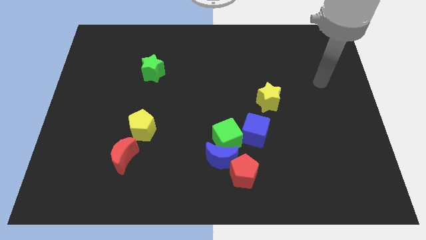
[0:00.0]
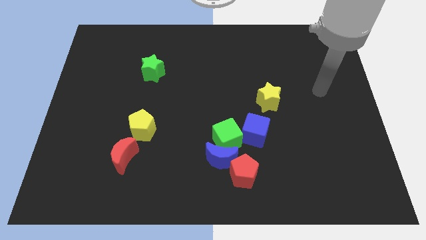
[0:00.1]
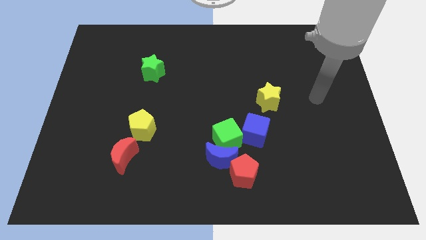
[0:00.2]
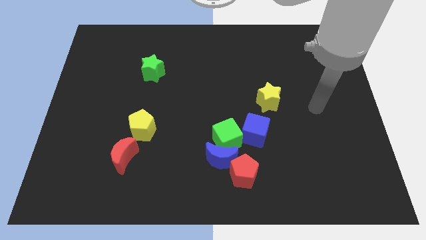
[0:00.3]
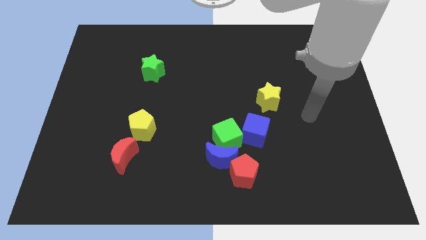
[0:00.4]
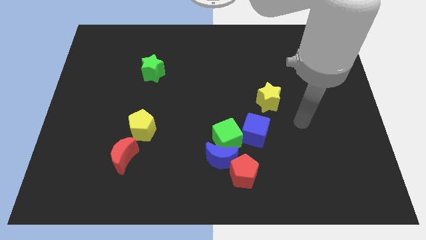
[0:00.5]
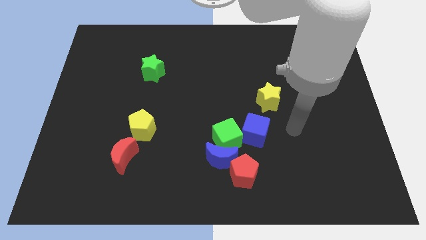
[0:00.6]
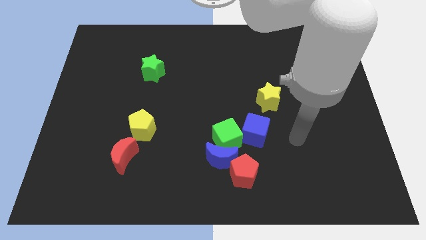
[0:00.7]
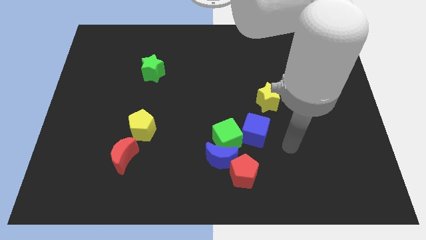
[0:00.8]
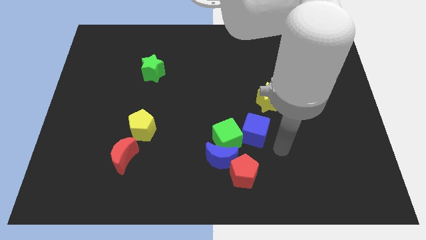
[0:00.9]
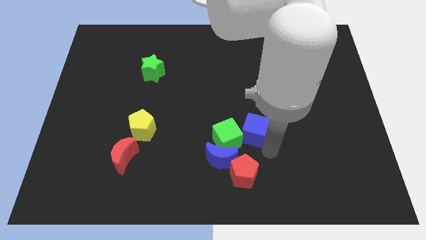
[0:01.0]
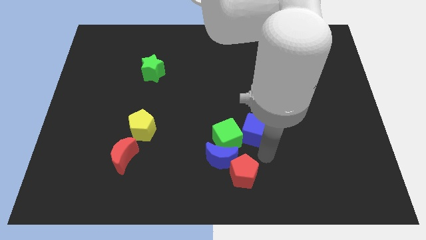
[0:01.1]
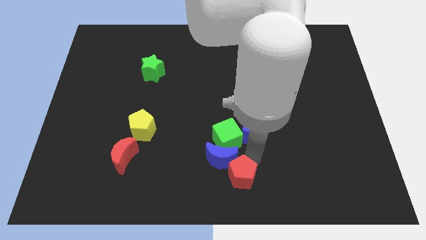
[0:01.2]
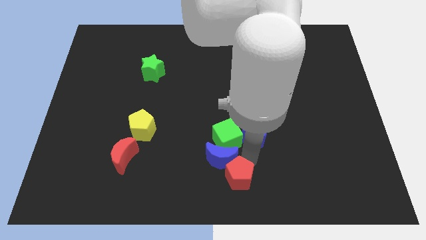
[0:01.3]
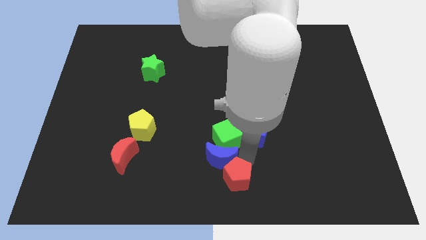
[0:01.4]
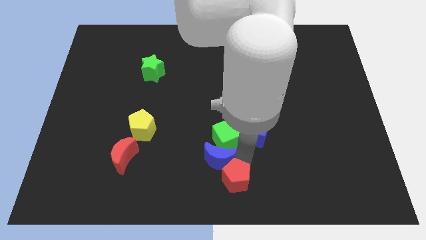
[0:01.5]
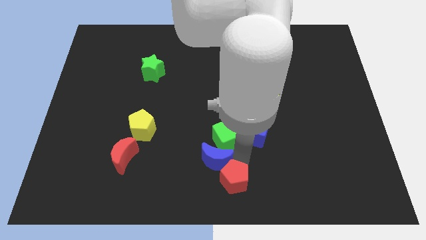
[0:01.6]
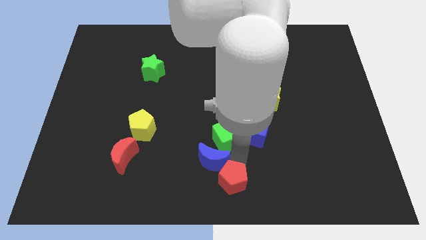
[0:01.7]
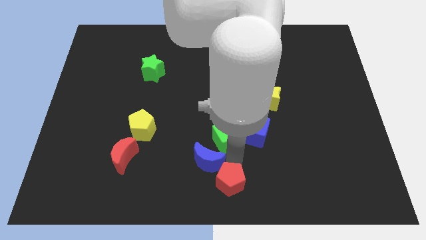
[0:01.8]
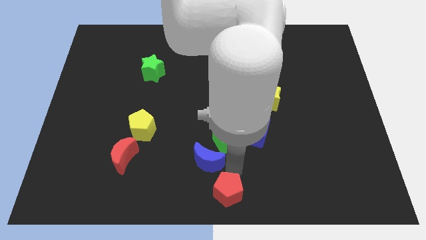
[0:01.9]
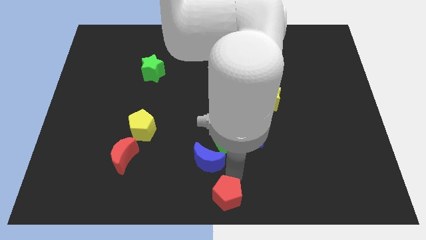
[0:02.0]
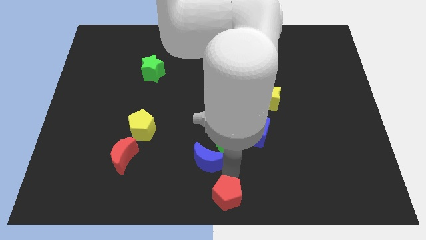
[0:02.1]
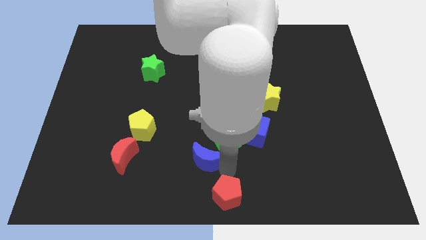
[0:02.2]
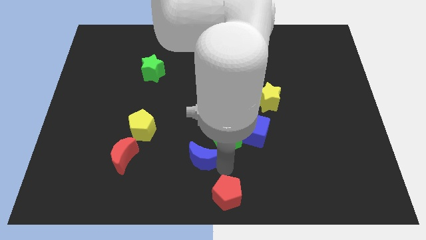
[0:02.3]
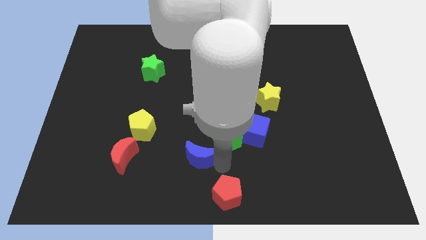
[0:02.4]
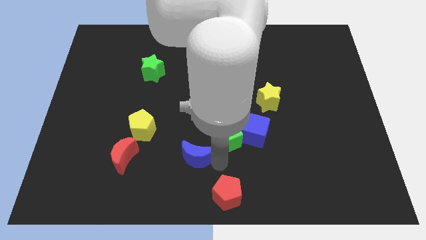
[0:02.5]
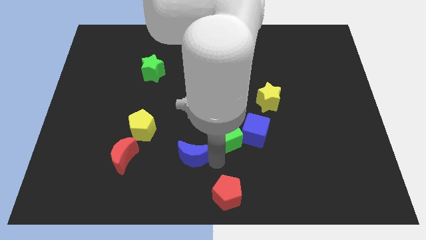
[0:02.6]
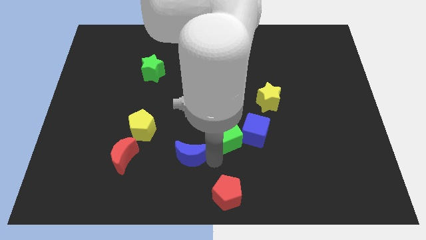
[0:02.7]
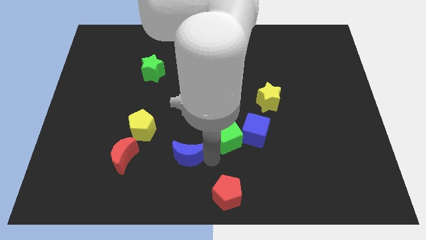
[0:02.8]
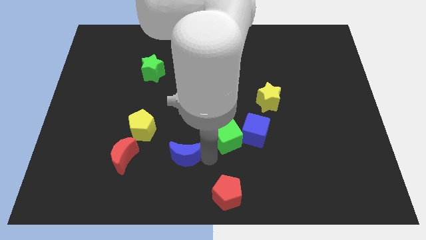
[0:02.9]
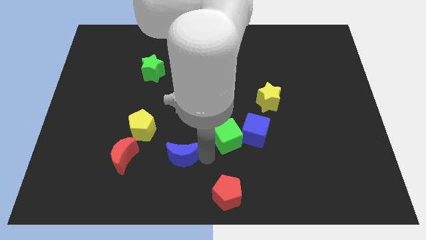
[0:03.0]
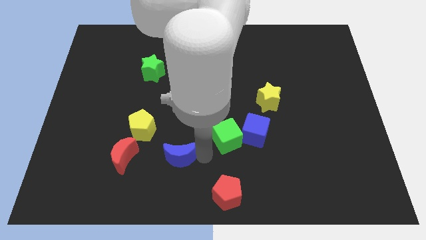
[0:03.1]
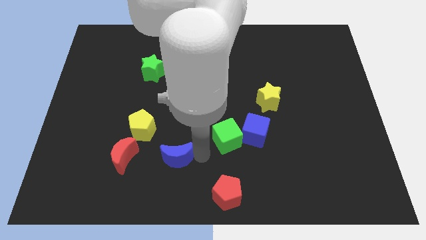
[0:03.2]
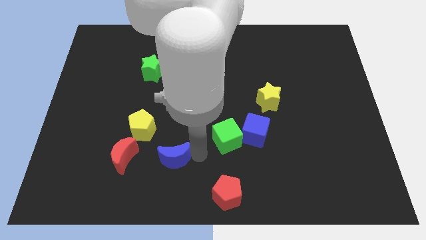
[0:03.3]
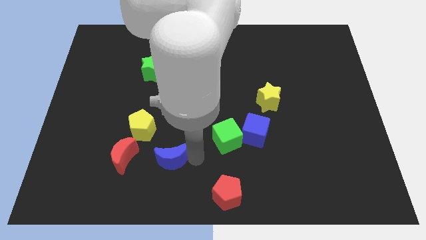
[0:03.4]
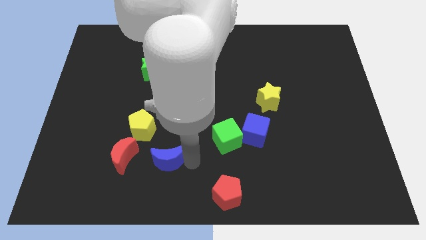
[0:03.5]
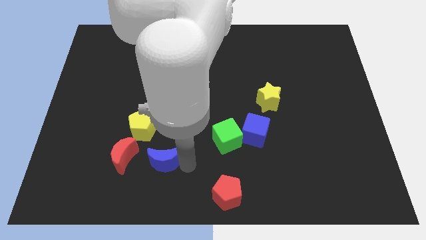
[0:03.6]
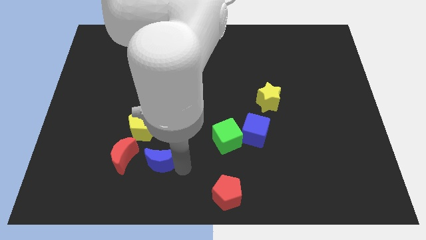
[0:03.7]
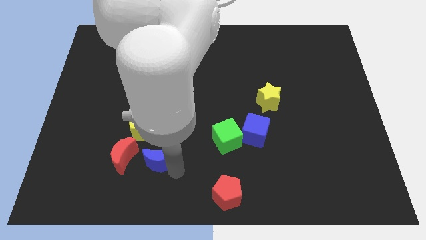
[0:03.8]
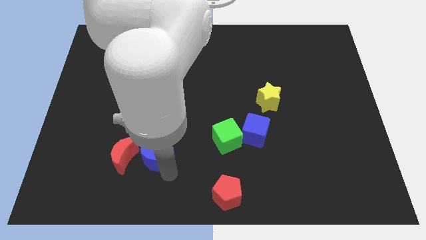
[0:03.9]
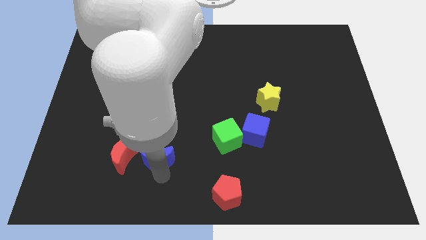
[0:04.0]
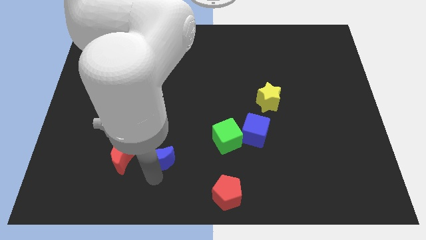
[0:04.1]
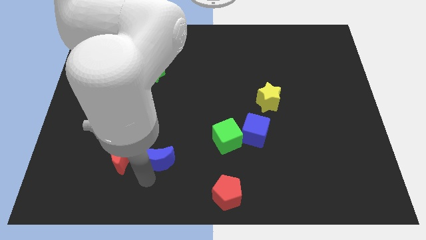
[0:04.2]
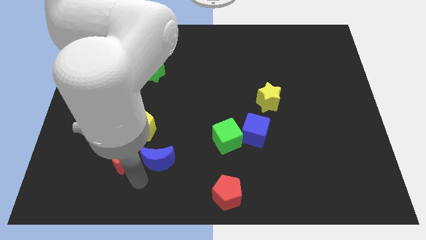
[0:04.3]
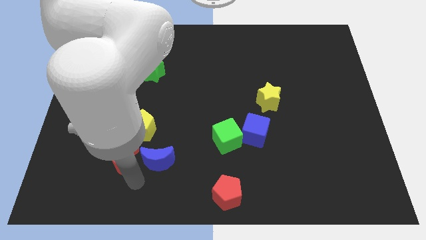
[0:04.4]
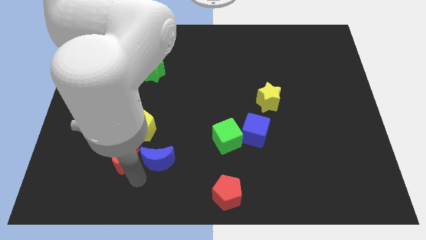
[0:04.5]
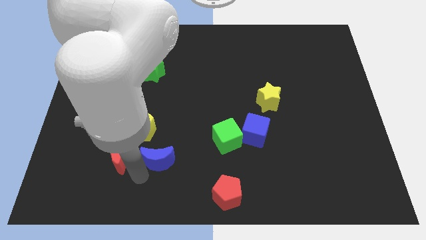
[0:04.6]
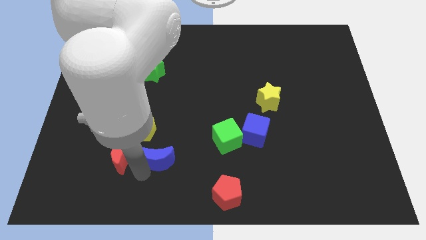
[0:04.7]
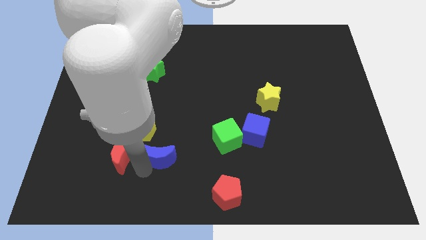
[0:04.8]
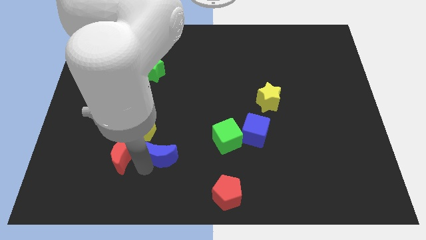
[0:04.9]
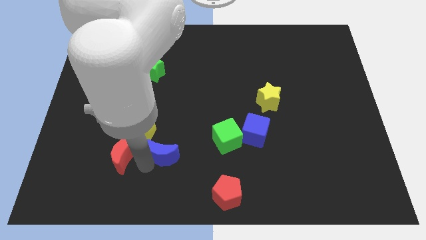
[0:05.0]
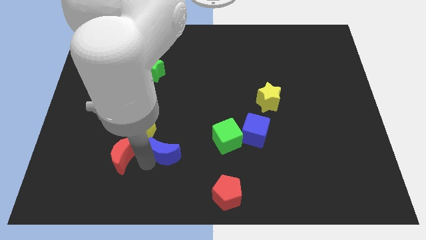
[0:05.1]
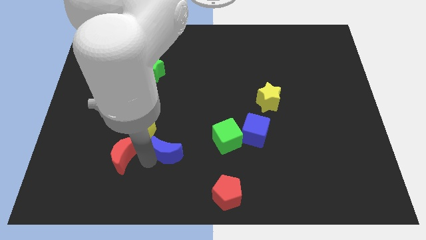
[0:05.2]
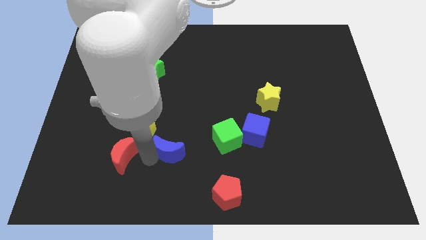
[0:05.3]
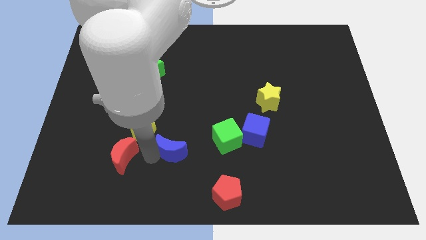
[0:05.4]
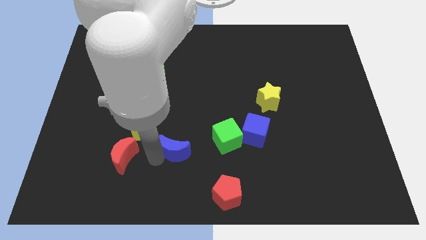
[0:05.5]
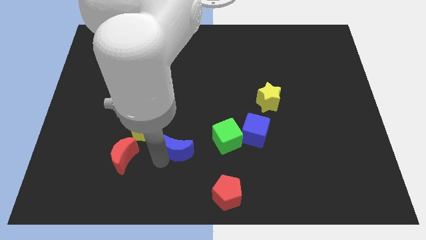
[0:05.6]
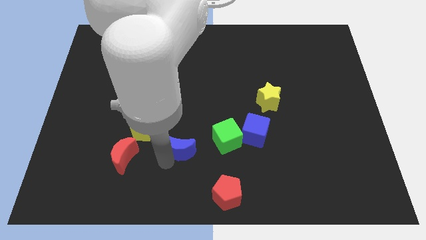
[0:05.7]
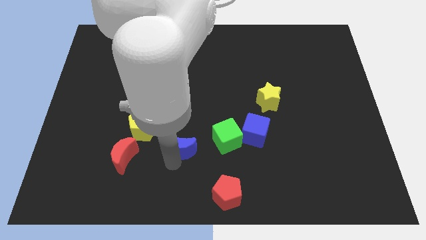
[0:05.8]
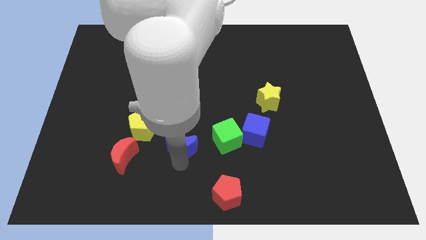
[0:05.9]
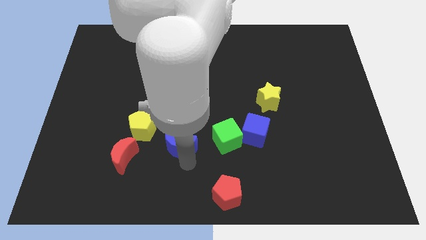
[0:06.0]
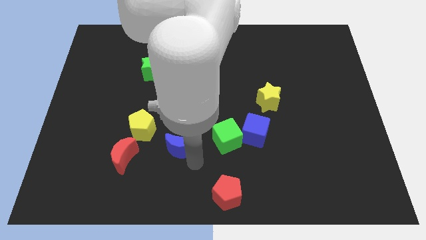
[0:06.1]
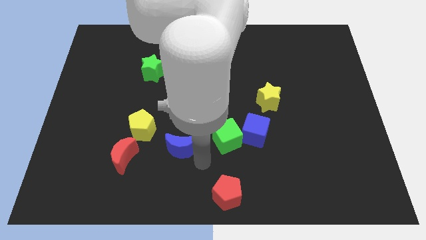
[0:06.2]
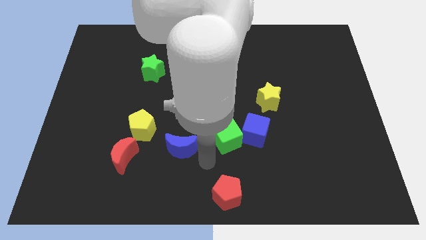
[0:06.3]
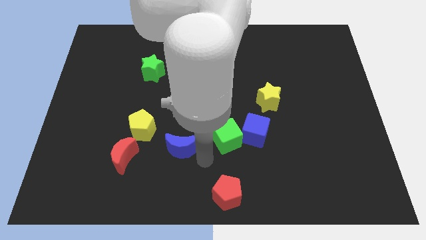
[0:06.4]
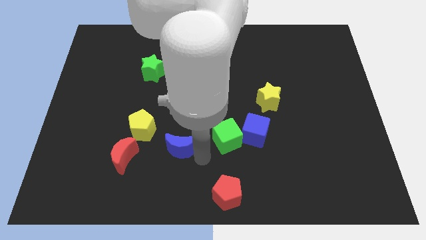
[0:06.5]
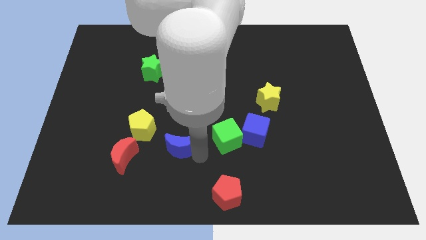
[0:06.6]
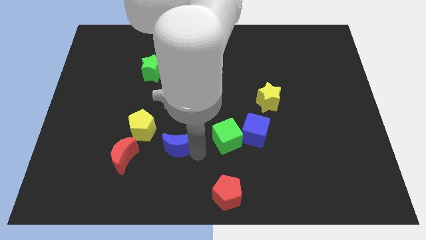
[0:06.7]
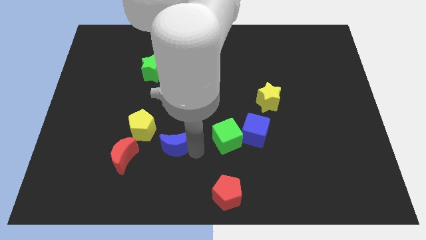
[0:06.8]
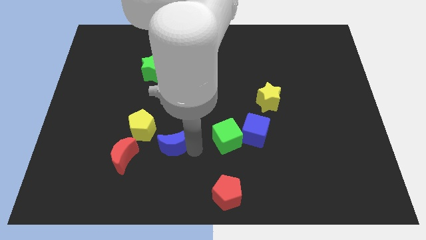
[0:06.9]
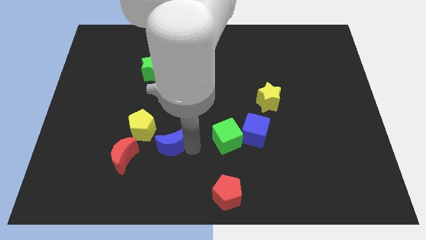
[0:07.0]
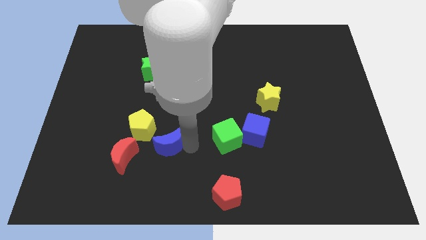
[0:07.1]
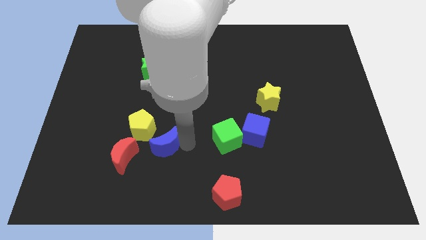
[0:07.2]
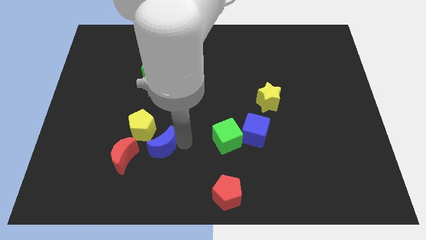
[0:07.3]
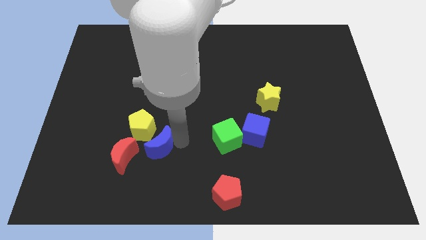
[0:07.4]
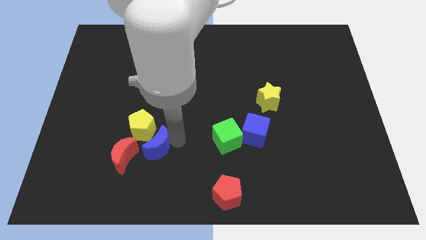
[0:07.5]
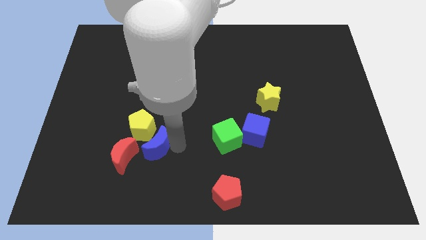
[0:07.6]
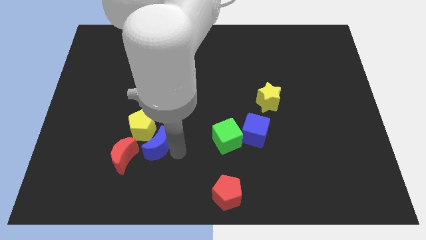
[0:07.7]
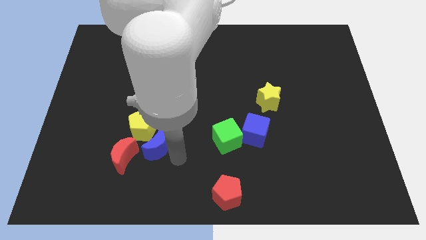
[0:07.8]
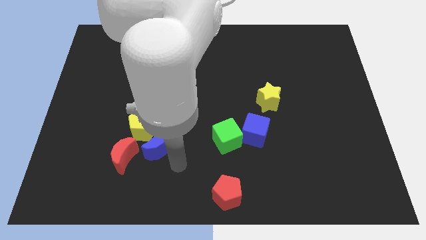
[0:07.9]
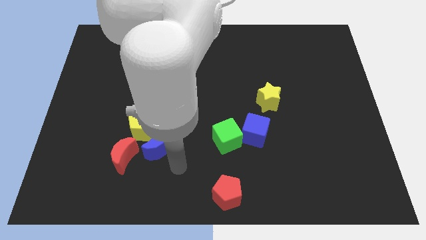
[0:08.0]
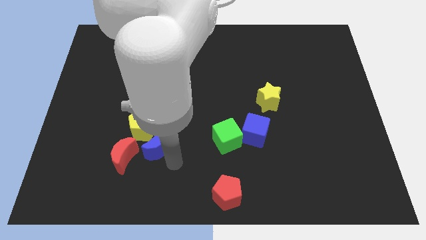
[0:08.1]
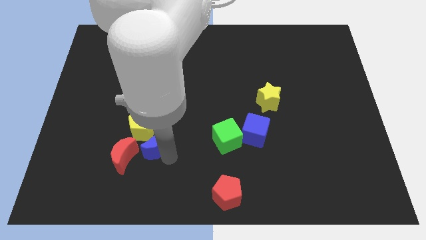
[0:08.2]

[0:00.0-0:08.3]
move the blue moon towards the yellow pentagon
